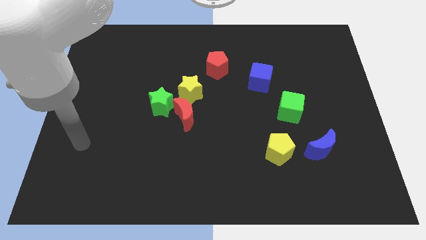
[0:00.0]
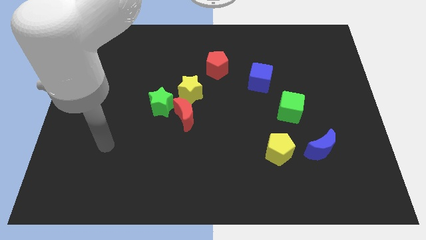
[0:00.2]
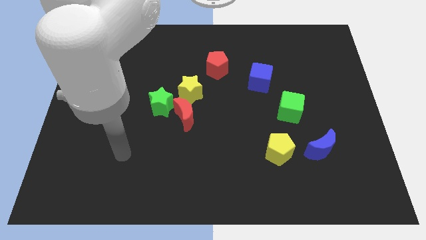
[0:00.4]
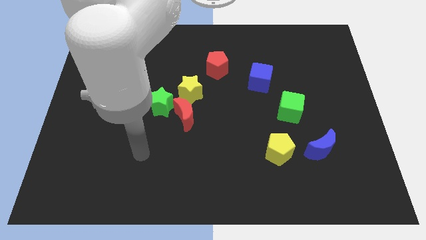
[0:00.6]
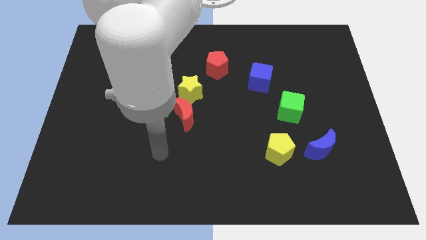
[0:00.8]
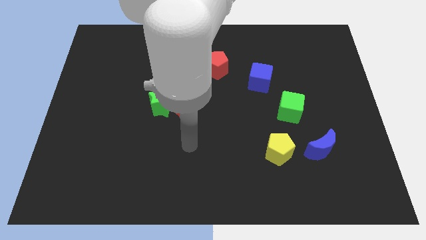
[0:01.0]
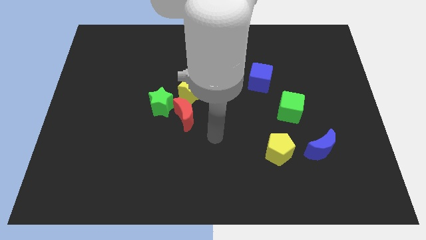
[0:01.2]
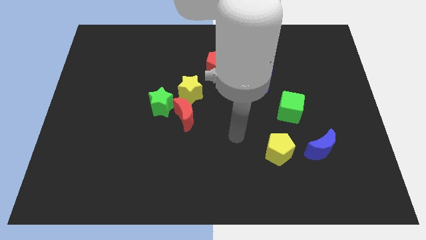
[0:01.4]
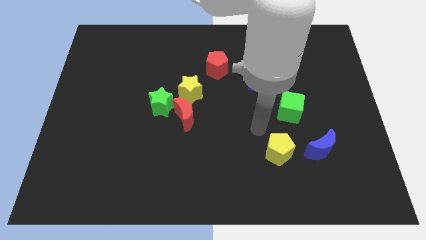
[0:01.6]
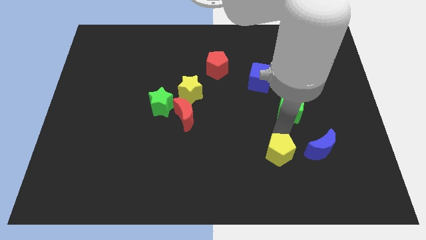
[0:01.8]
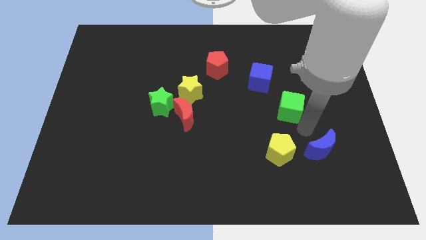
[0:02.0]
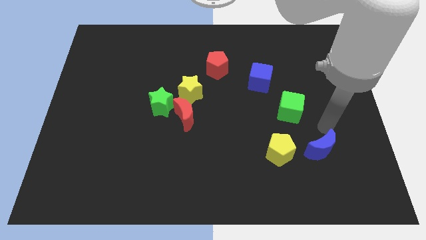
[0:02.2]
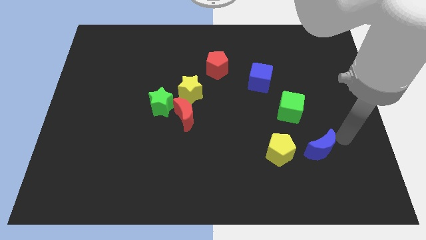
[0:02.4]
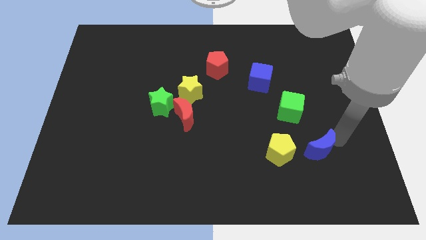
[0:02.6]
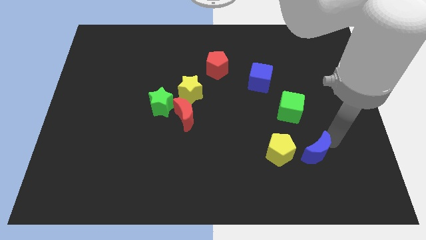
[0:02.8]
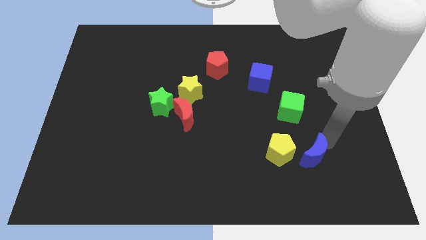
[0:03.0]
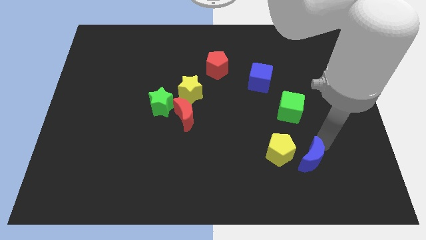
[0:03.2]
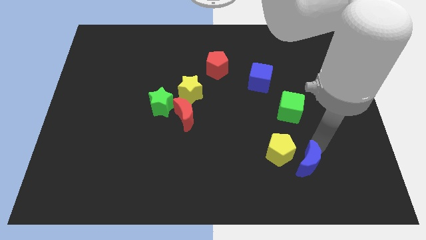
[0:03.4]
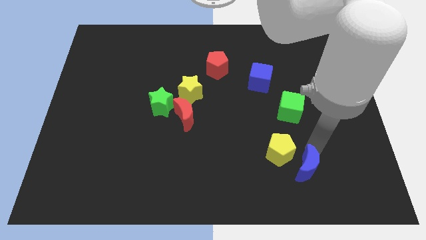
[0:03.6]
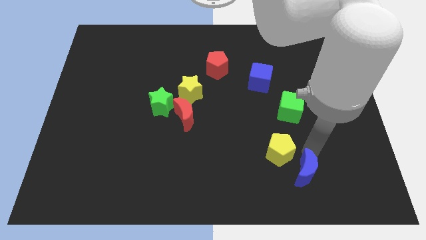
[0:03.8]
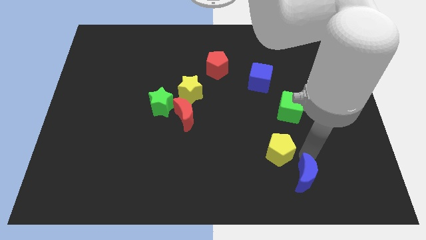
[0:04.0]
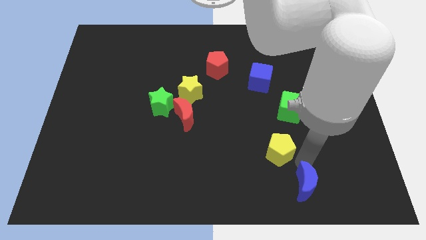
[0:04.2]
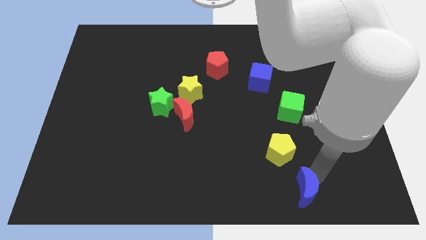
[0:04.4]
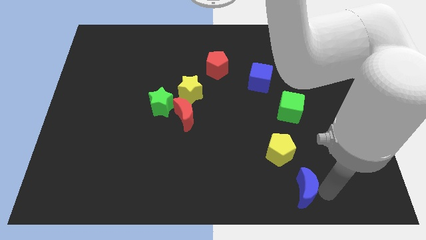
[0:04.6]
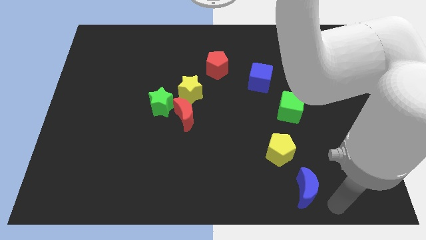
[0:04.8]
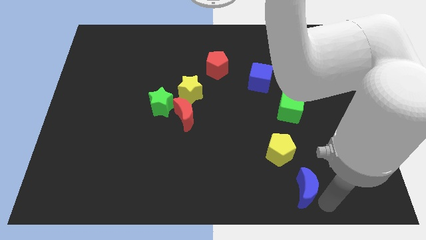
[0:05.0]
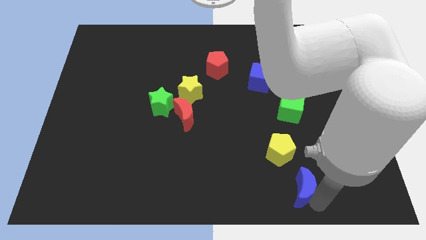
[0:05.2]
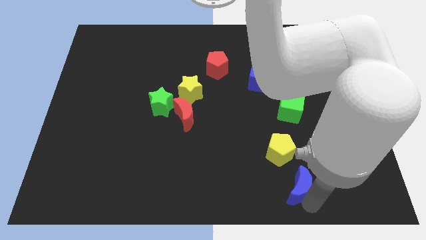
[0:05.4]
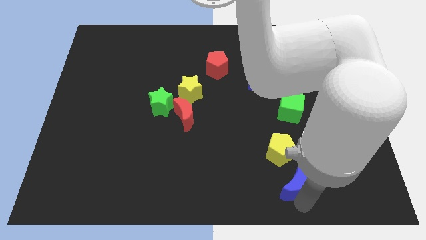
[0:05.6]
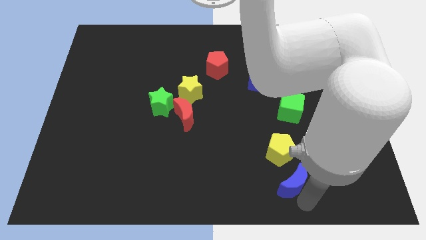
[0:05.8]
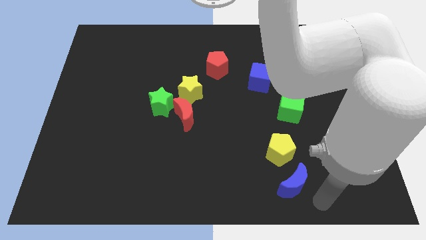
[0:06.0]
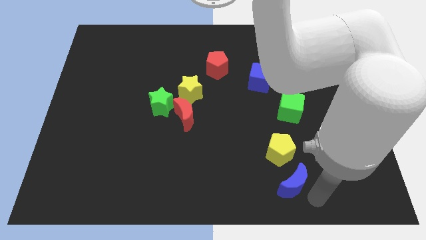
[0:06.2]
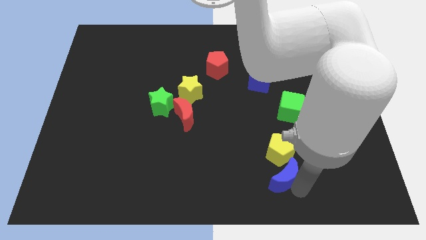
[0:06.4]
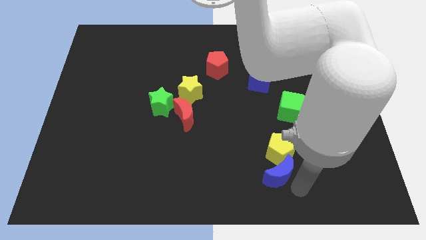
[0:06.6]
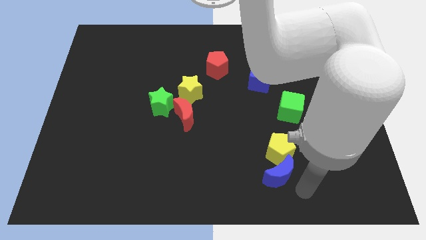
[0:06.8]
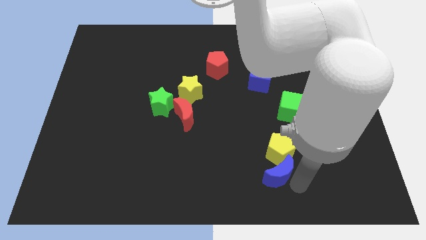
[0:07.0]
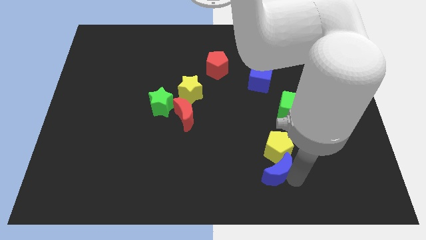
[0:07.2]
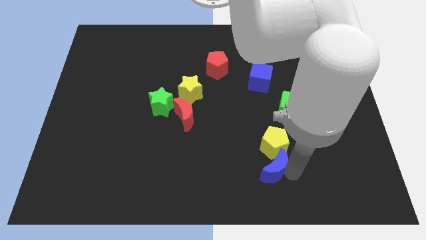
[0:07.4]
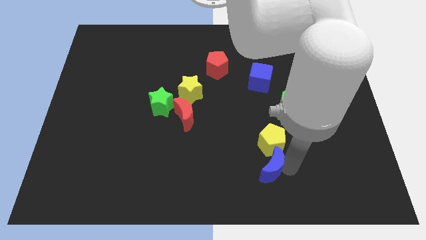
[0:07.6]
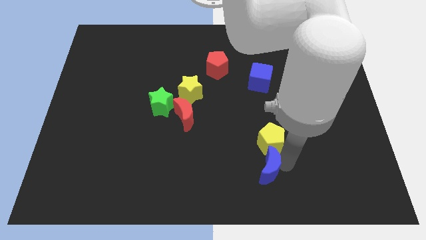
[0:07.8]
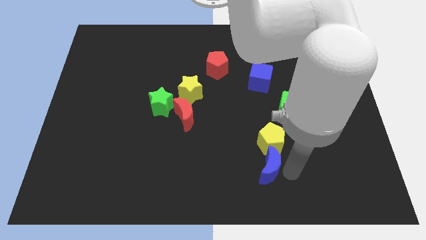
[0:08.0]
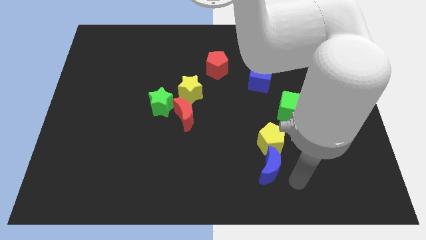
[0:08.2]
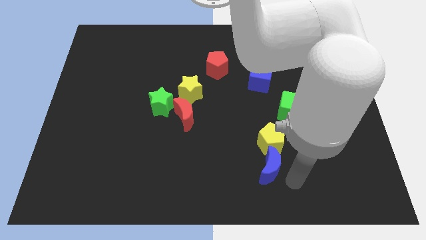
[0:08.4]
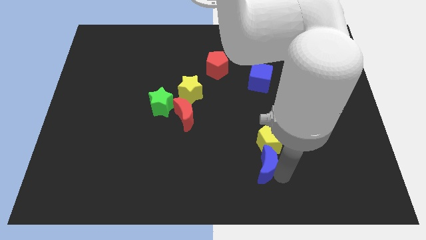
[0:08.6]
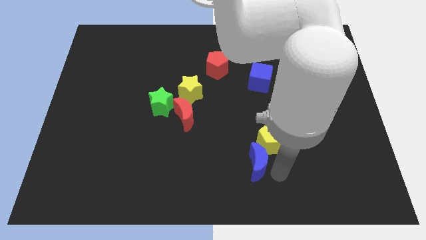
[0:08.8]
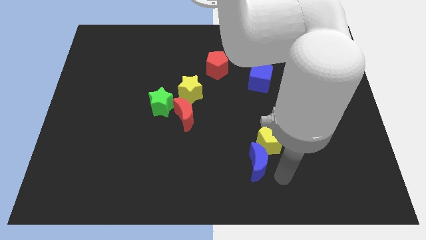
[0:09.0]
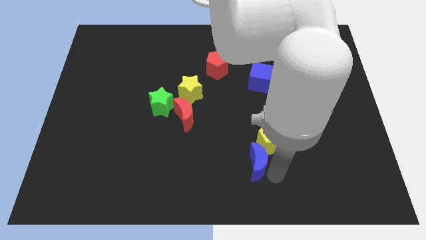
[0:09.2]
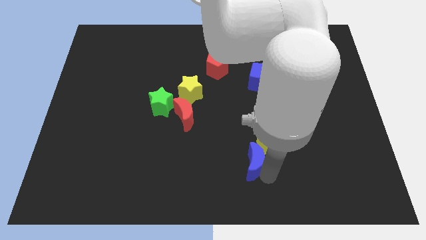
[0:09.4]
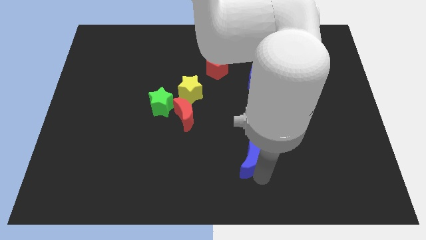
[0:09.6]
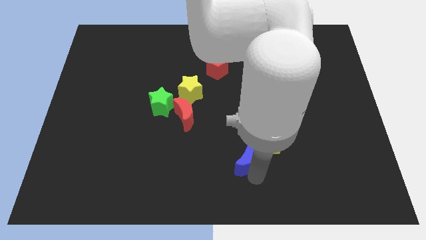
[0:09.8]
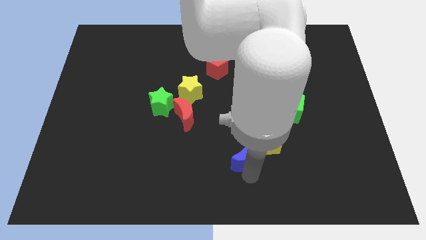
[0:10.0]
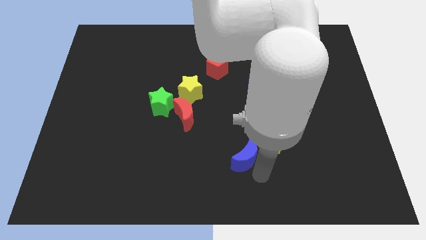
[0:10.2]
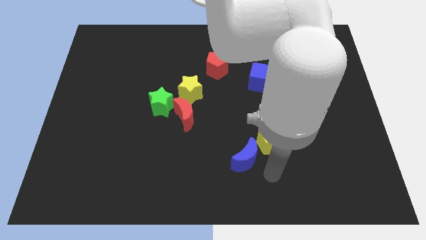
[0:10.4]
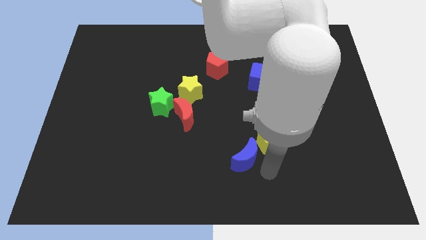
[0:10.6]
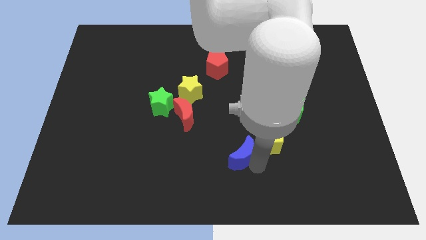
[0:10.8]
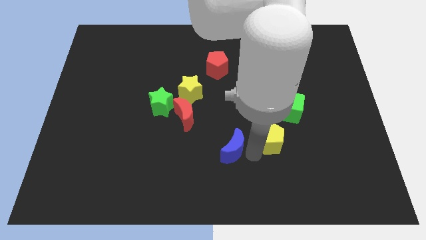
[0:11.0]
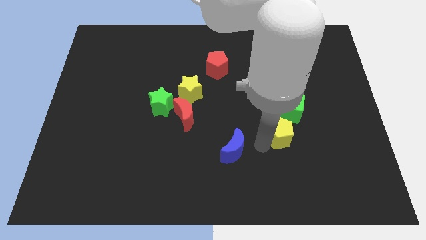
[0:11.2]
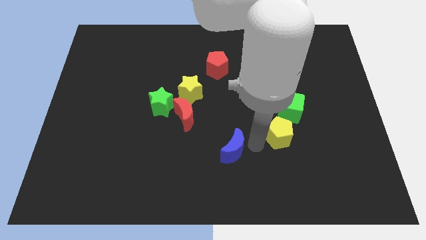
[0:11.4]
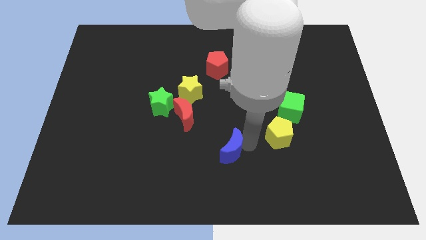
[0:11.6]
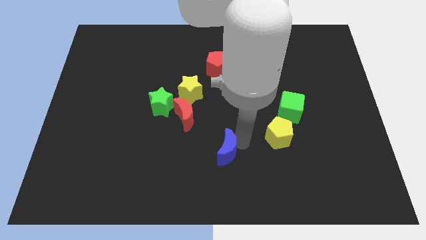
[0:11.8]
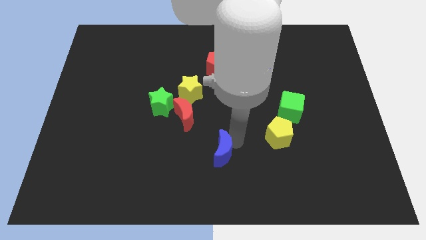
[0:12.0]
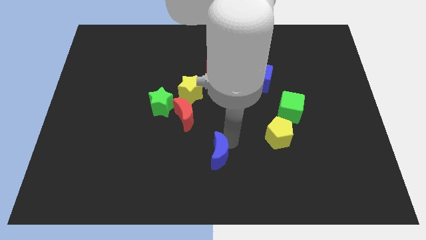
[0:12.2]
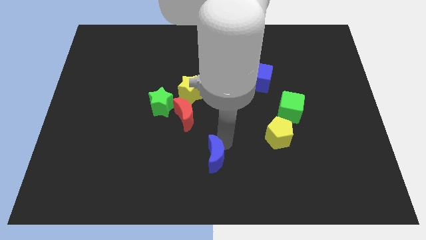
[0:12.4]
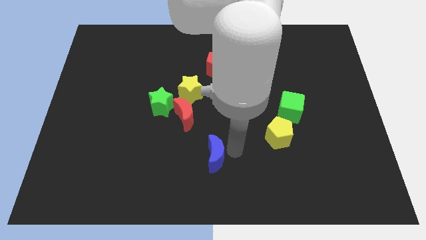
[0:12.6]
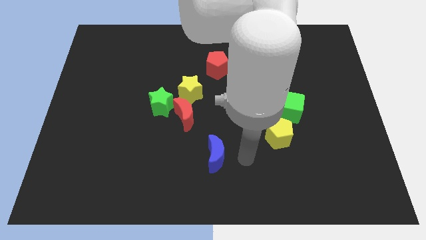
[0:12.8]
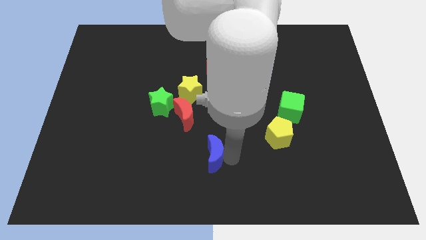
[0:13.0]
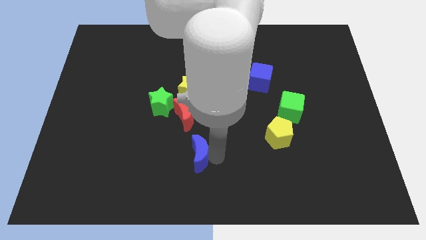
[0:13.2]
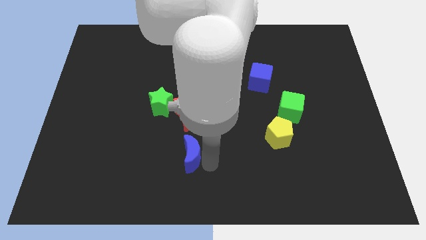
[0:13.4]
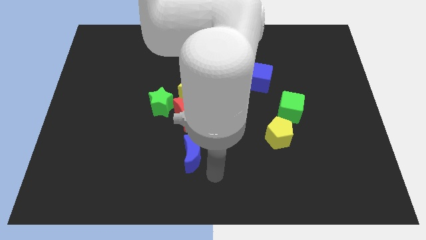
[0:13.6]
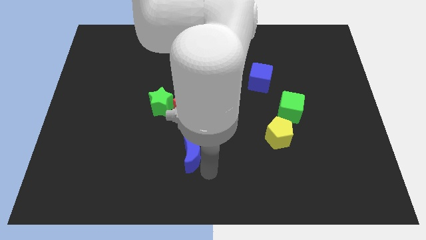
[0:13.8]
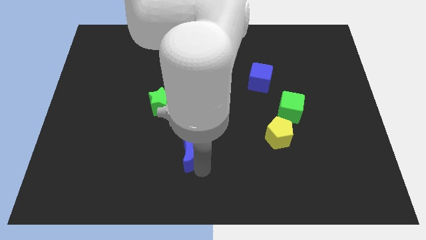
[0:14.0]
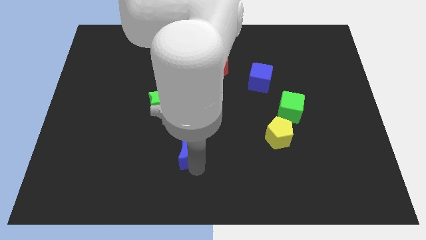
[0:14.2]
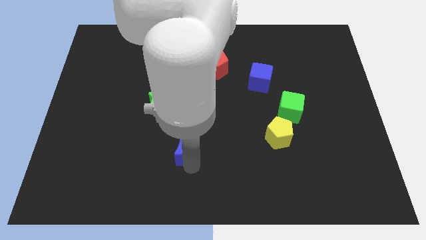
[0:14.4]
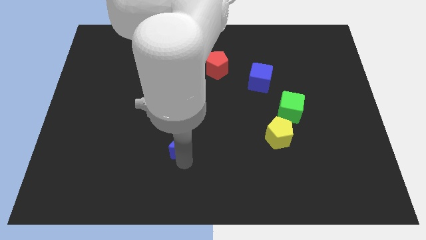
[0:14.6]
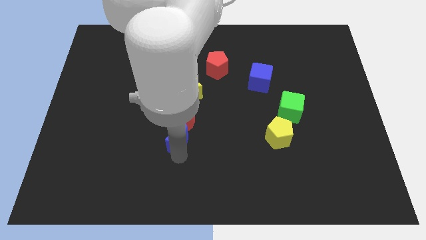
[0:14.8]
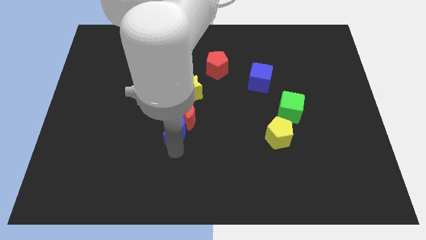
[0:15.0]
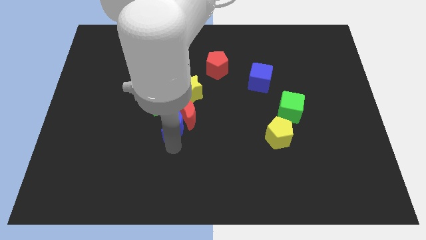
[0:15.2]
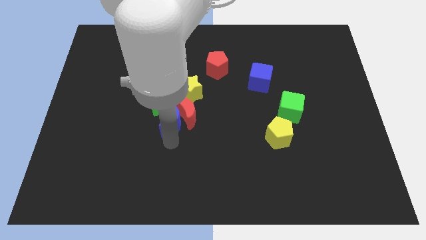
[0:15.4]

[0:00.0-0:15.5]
move the blue moon to the green star
